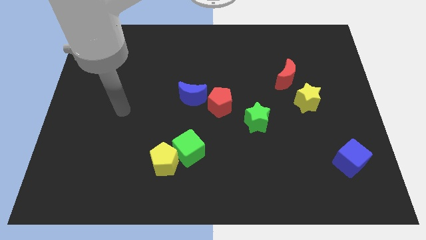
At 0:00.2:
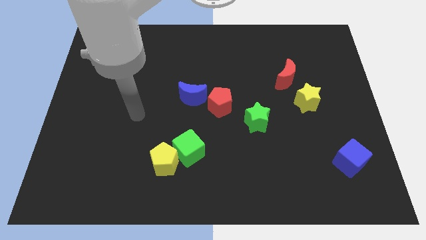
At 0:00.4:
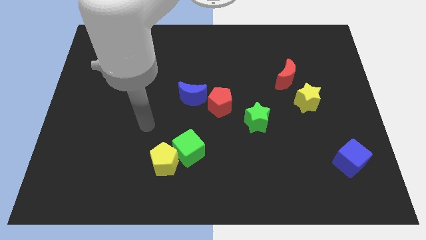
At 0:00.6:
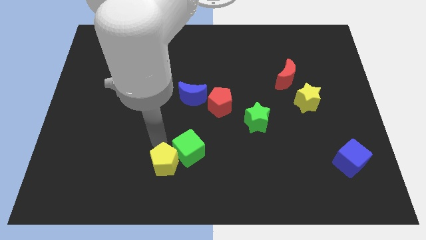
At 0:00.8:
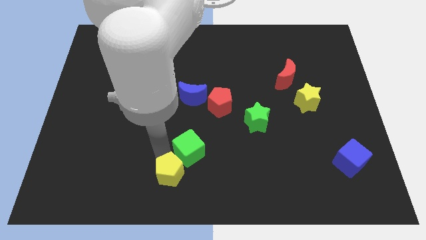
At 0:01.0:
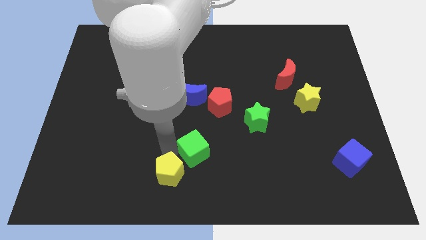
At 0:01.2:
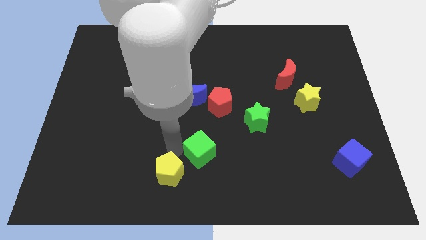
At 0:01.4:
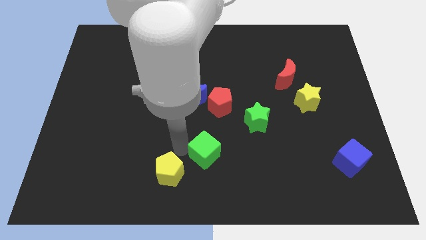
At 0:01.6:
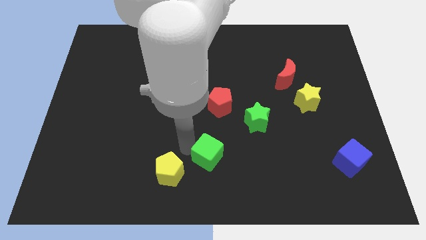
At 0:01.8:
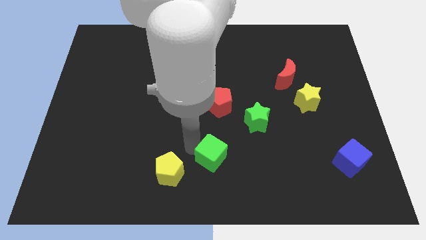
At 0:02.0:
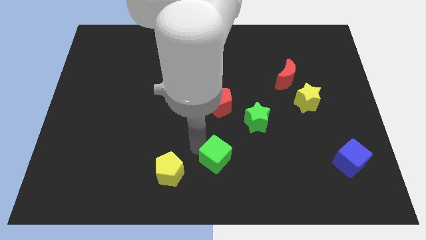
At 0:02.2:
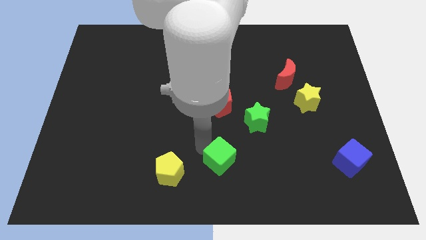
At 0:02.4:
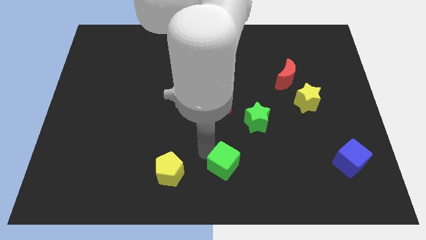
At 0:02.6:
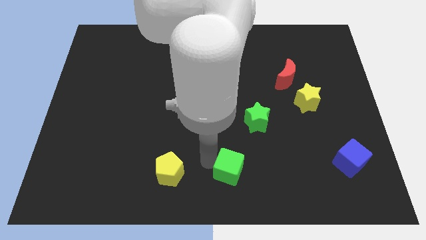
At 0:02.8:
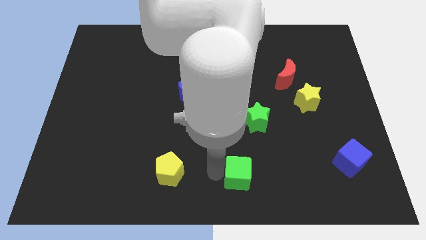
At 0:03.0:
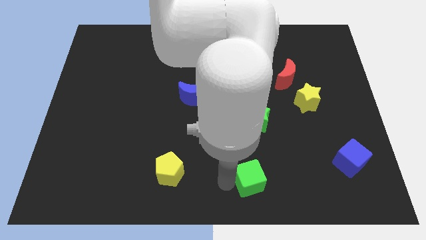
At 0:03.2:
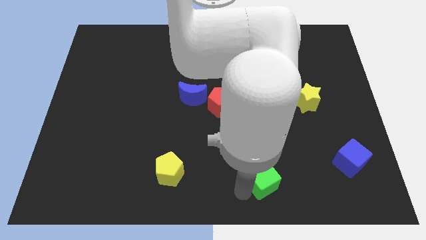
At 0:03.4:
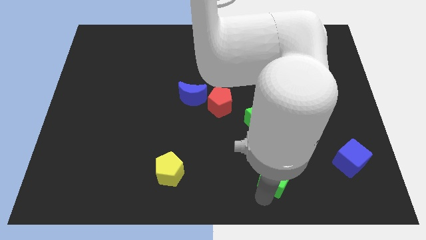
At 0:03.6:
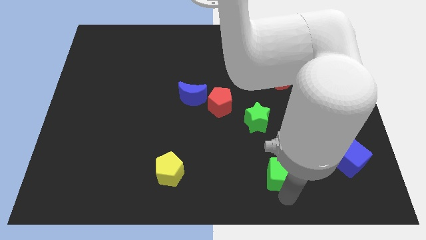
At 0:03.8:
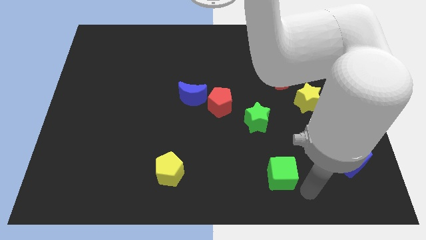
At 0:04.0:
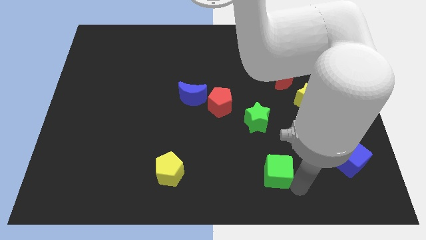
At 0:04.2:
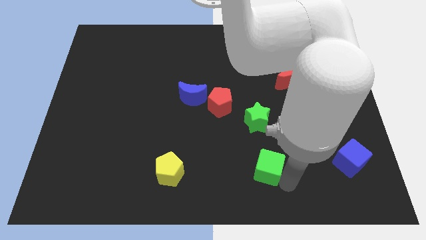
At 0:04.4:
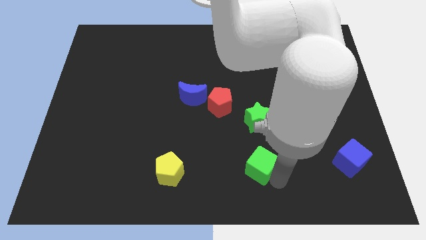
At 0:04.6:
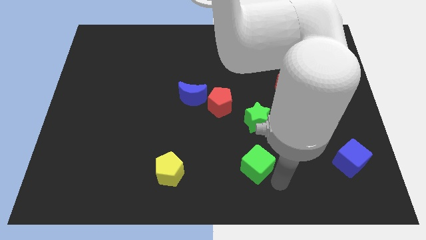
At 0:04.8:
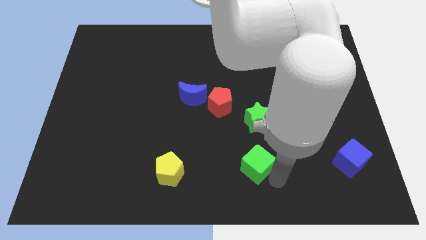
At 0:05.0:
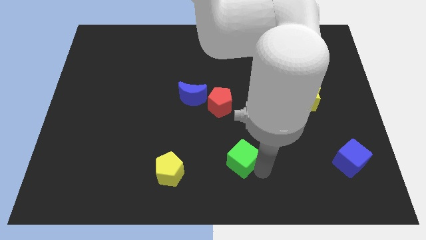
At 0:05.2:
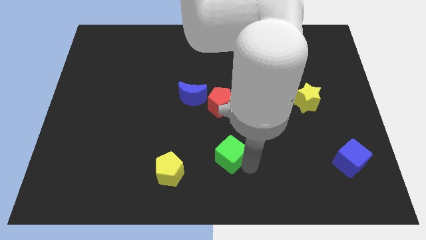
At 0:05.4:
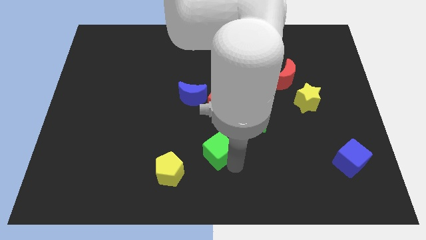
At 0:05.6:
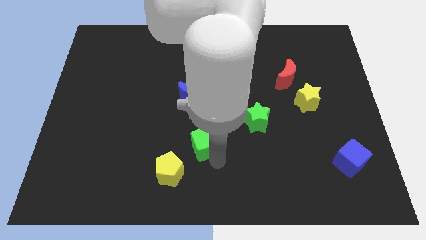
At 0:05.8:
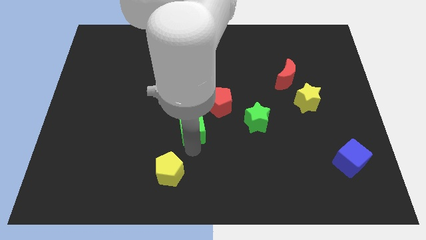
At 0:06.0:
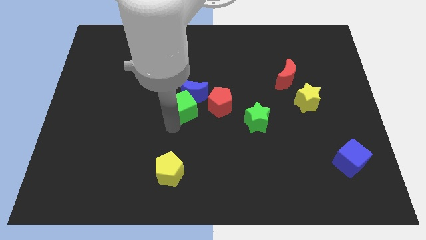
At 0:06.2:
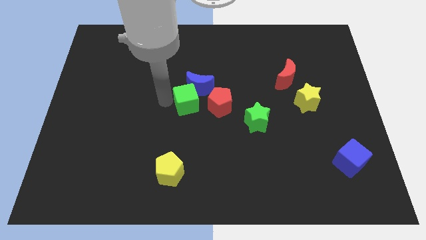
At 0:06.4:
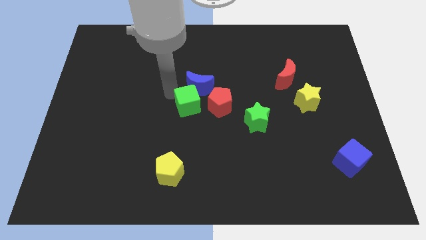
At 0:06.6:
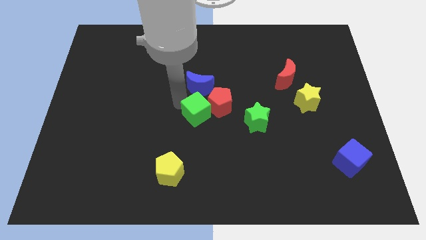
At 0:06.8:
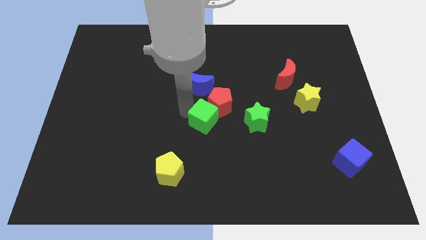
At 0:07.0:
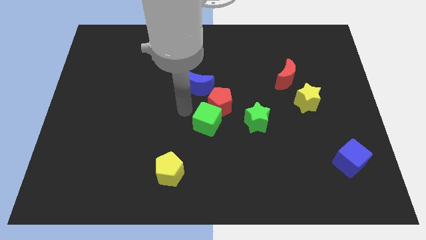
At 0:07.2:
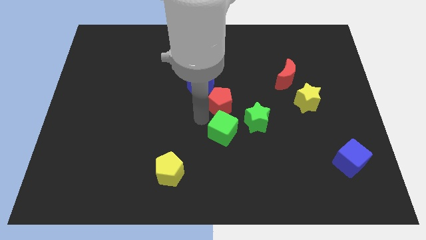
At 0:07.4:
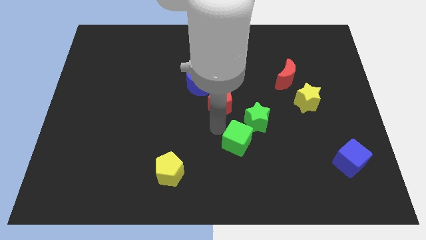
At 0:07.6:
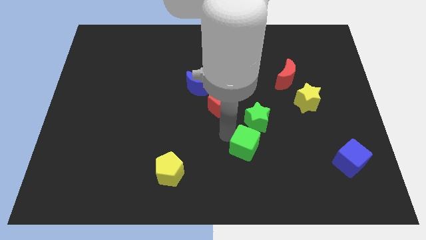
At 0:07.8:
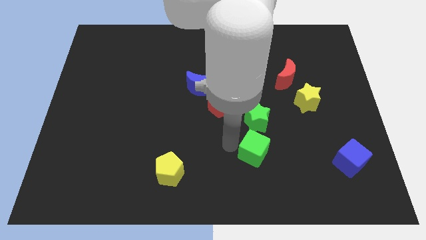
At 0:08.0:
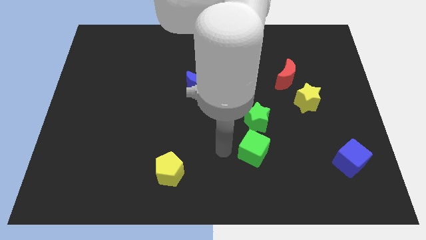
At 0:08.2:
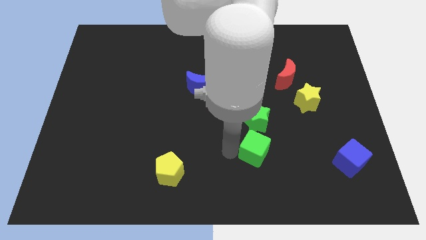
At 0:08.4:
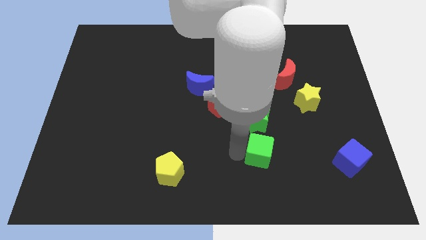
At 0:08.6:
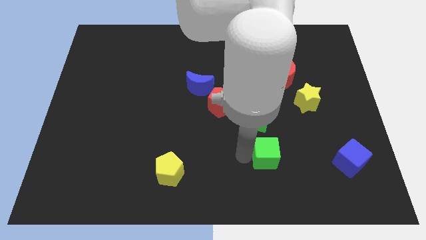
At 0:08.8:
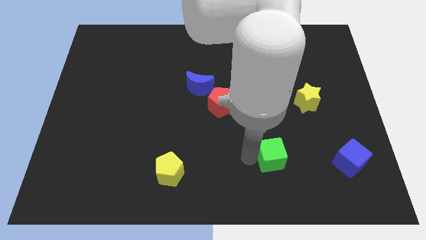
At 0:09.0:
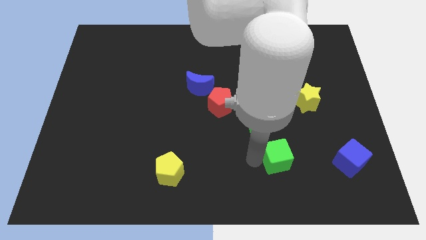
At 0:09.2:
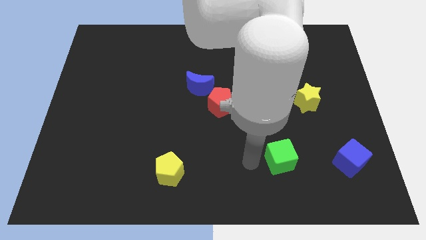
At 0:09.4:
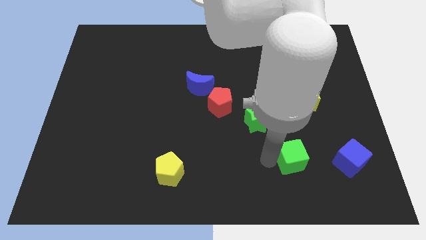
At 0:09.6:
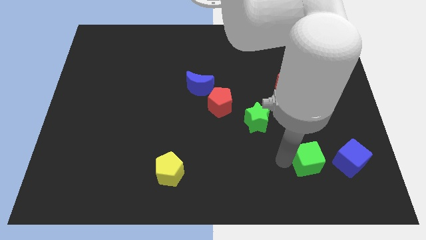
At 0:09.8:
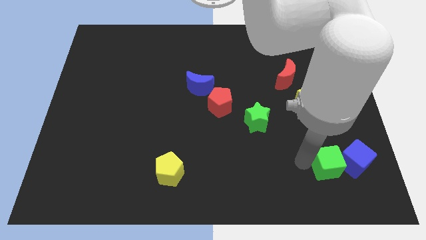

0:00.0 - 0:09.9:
move the green cube next to the blue cube

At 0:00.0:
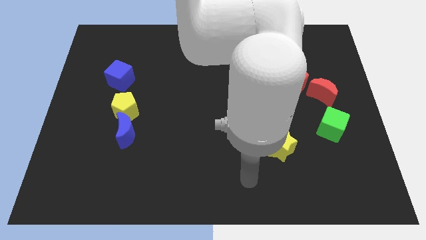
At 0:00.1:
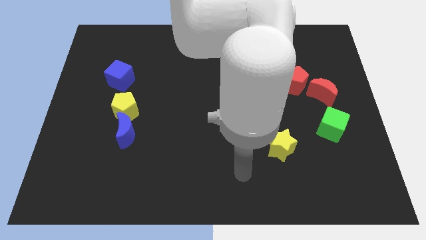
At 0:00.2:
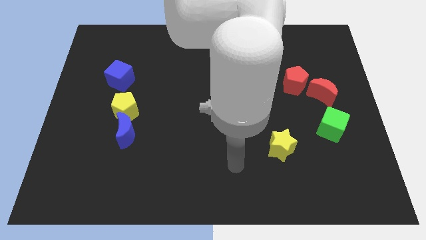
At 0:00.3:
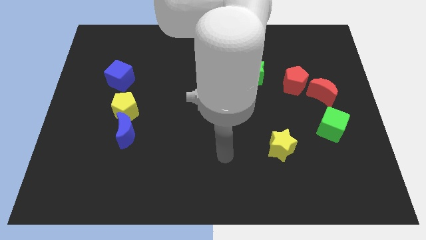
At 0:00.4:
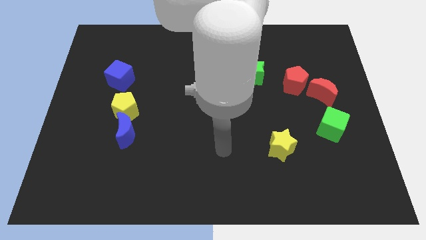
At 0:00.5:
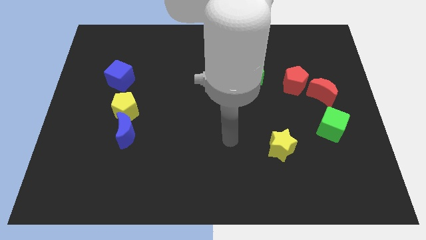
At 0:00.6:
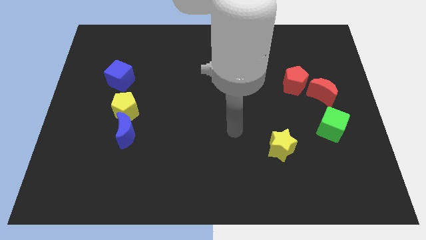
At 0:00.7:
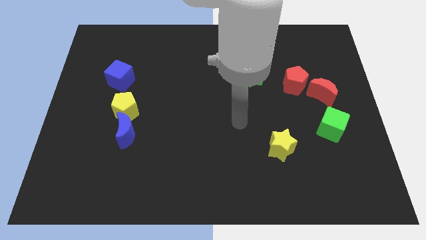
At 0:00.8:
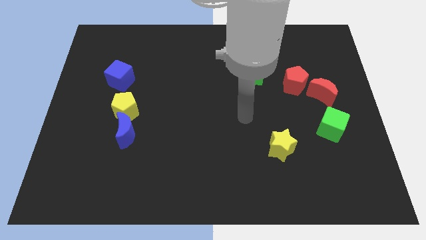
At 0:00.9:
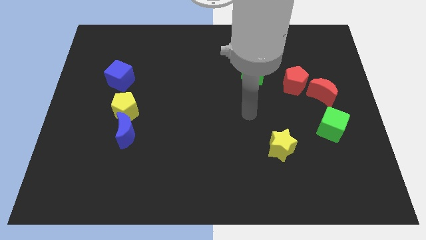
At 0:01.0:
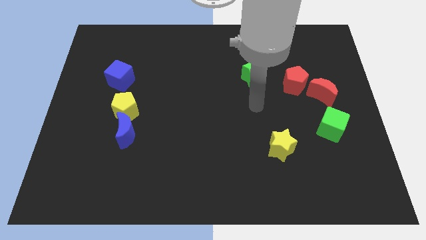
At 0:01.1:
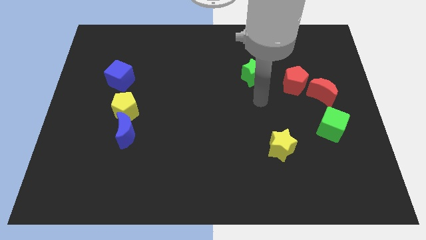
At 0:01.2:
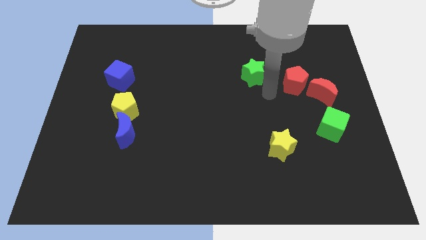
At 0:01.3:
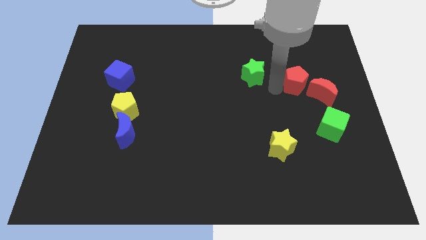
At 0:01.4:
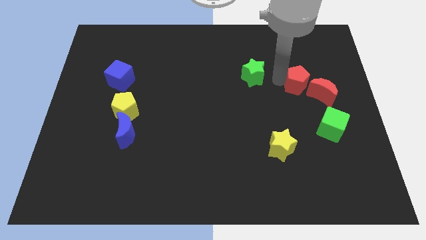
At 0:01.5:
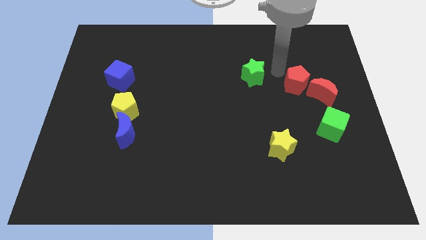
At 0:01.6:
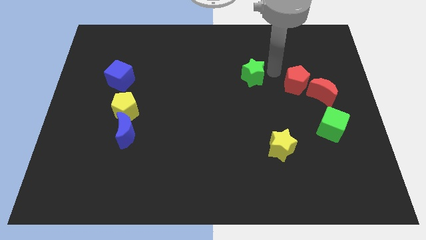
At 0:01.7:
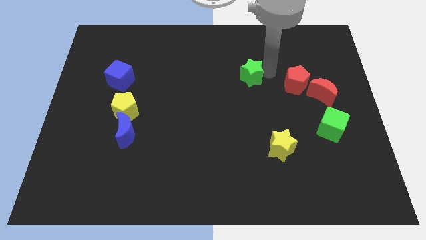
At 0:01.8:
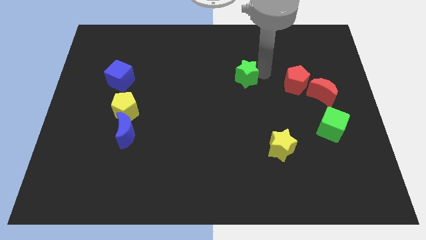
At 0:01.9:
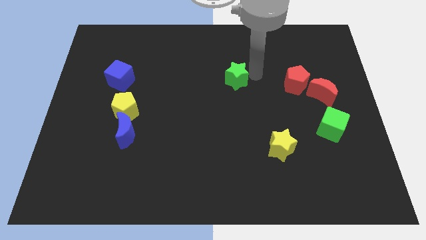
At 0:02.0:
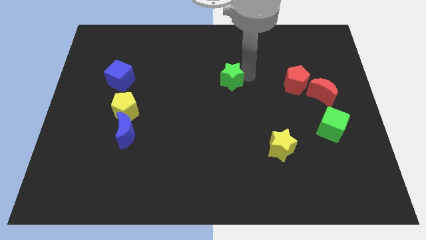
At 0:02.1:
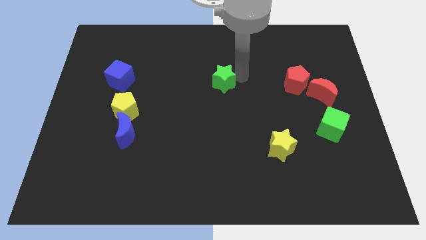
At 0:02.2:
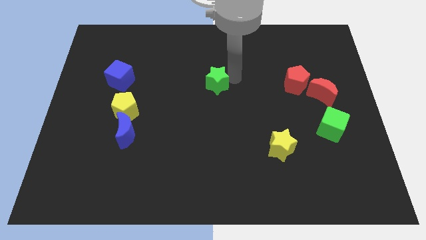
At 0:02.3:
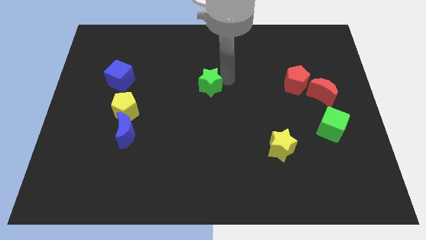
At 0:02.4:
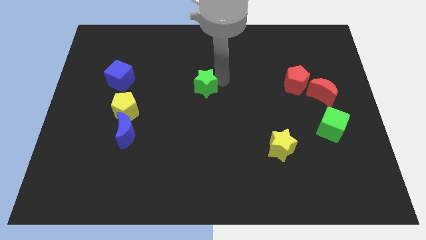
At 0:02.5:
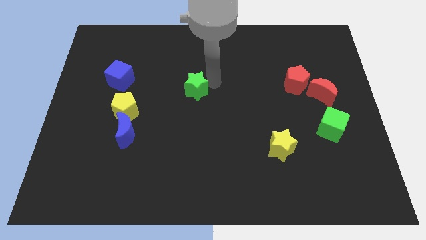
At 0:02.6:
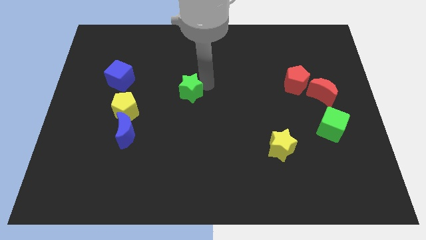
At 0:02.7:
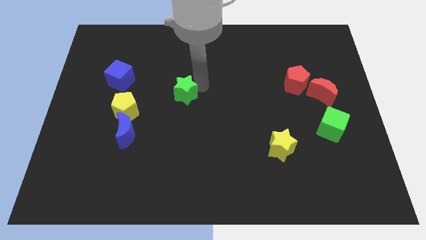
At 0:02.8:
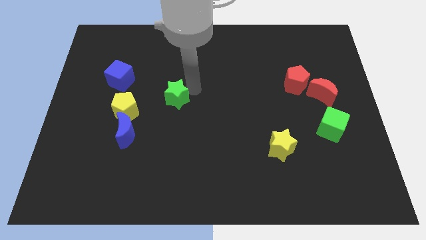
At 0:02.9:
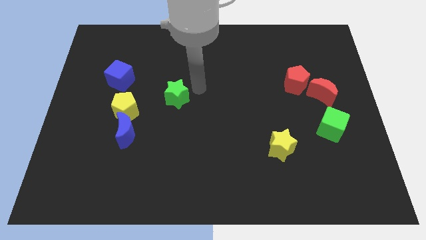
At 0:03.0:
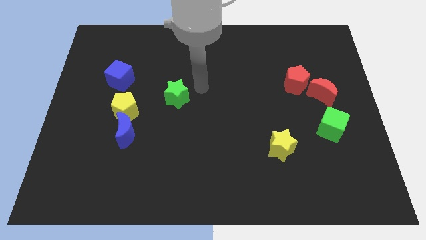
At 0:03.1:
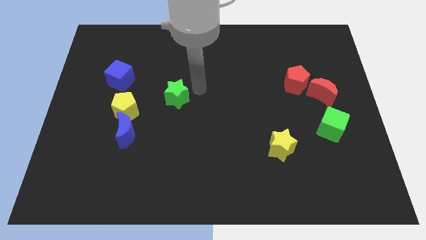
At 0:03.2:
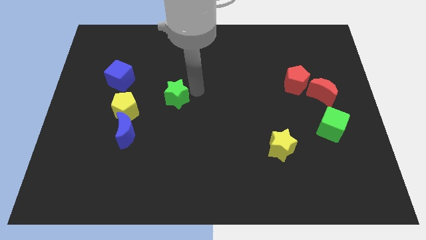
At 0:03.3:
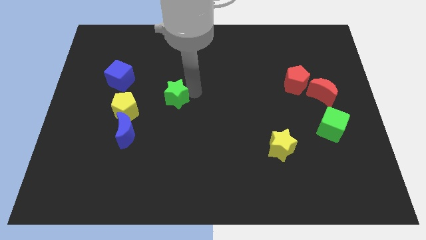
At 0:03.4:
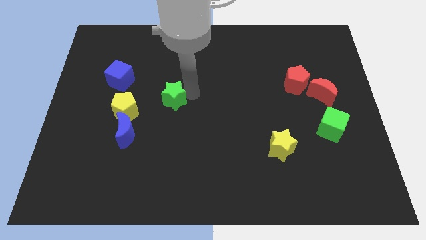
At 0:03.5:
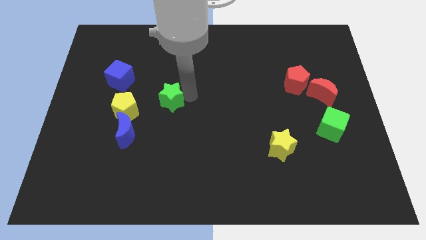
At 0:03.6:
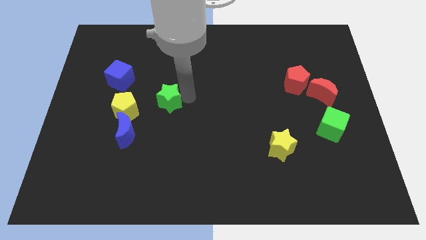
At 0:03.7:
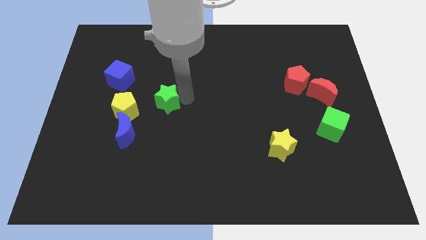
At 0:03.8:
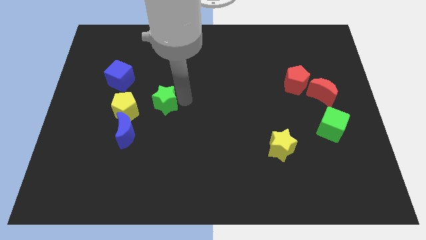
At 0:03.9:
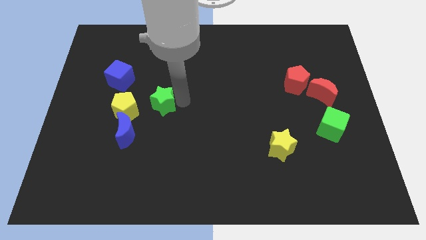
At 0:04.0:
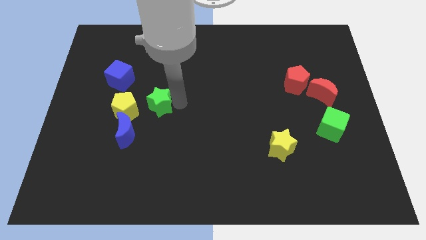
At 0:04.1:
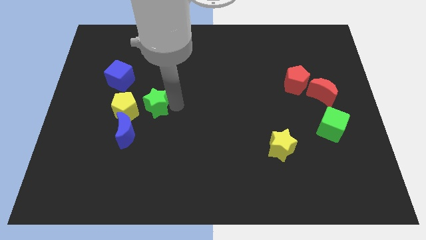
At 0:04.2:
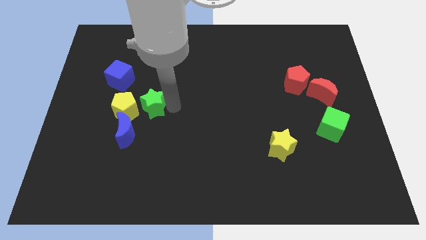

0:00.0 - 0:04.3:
slide the green star next to the yellow pentagon
